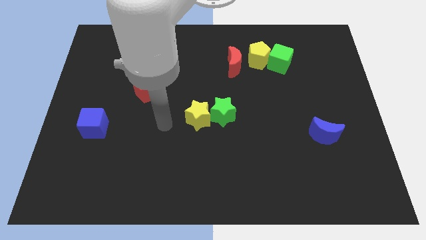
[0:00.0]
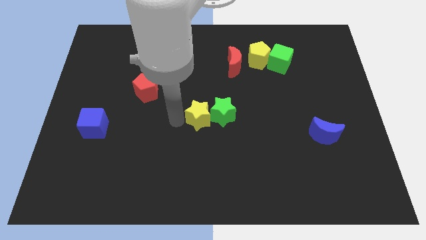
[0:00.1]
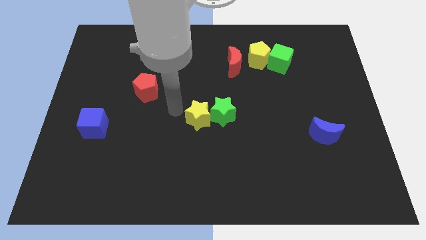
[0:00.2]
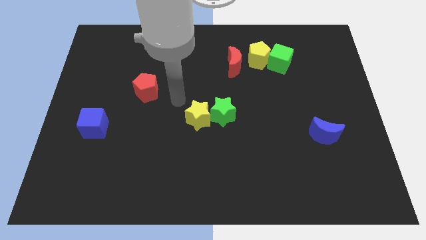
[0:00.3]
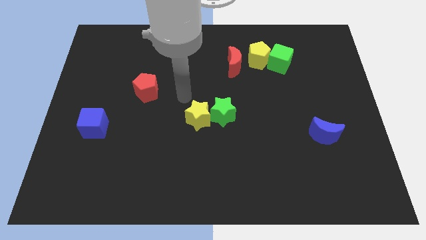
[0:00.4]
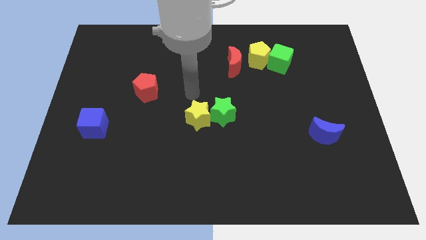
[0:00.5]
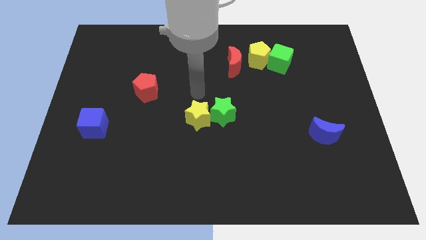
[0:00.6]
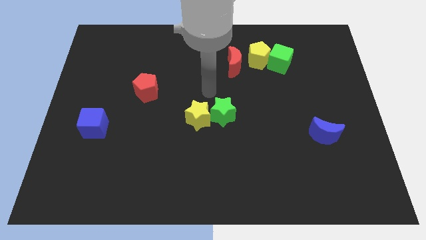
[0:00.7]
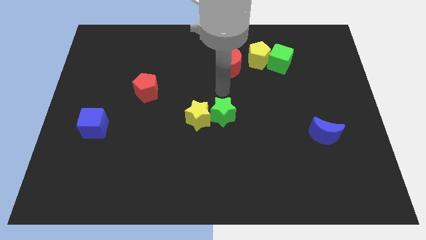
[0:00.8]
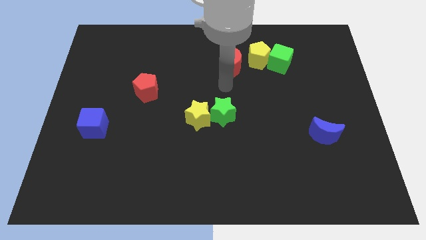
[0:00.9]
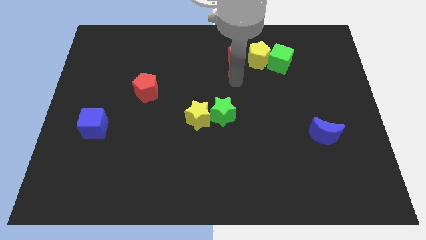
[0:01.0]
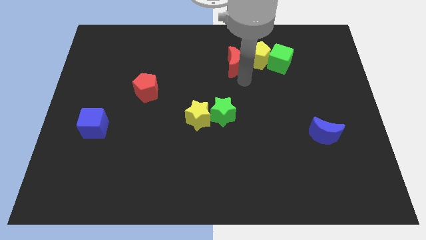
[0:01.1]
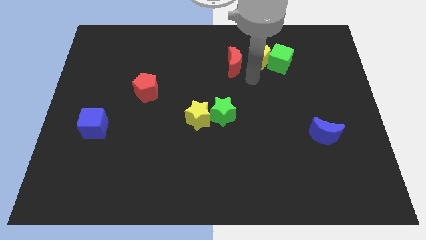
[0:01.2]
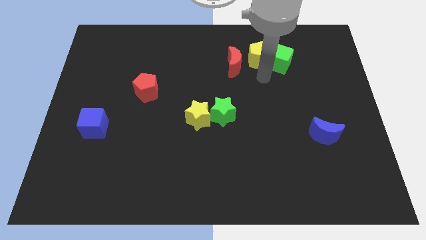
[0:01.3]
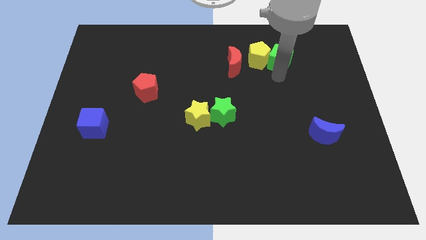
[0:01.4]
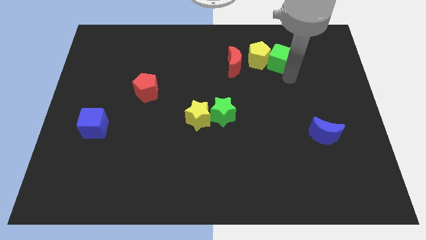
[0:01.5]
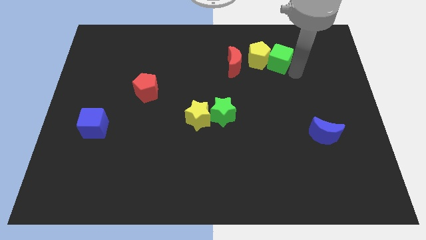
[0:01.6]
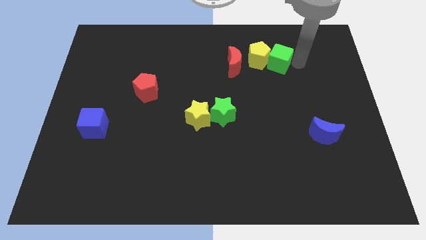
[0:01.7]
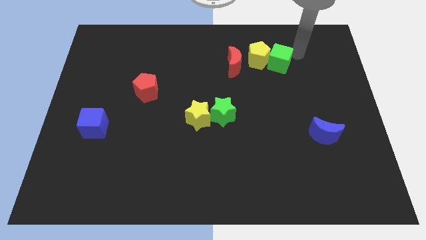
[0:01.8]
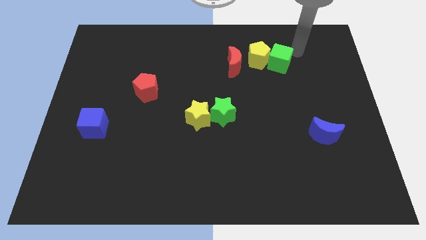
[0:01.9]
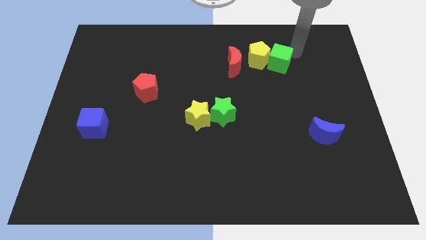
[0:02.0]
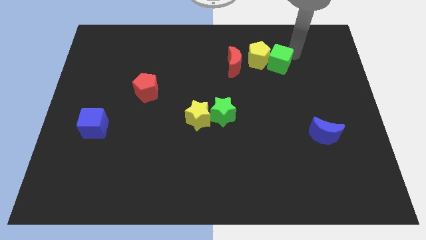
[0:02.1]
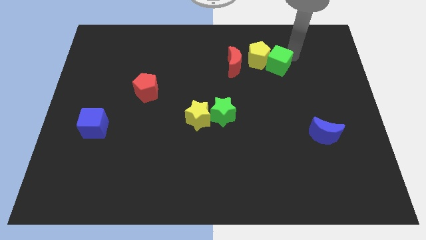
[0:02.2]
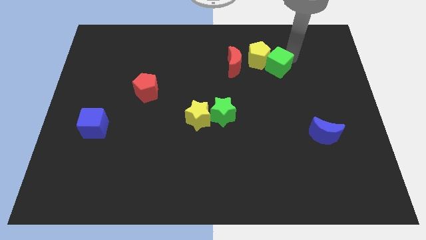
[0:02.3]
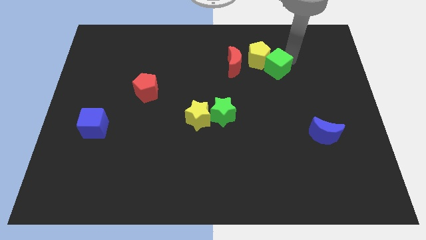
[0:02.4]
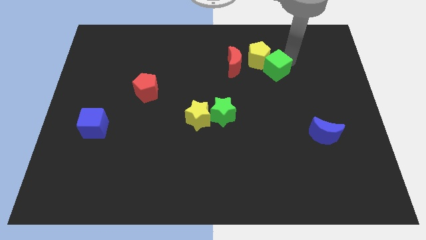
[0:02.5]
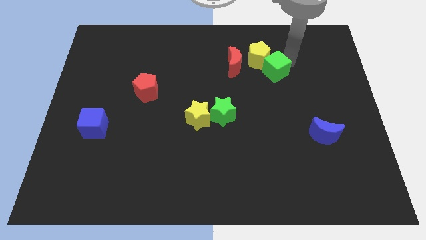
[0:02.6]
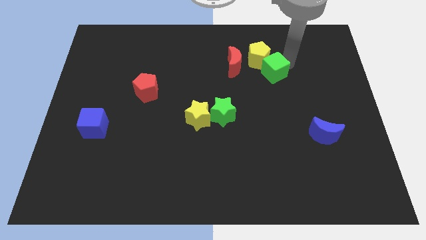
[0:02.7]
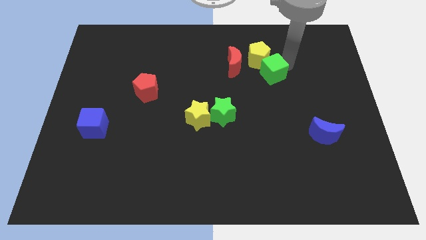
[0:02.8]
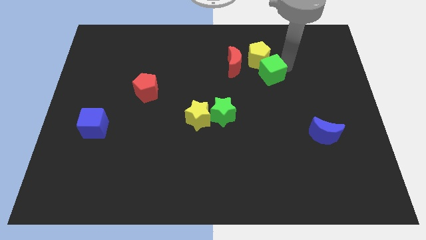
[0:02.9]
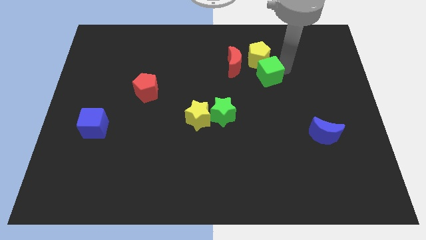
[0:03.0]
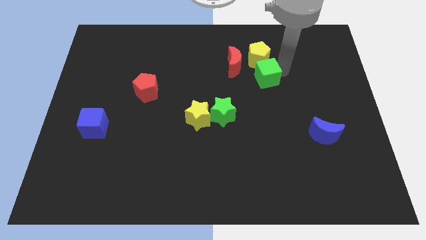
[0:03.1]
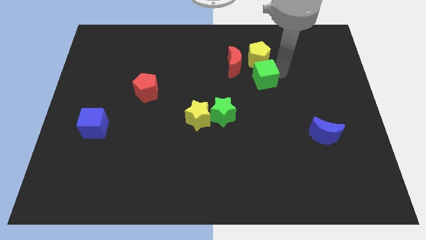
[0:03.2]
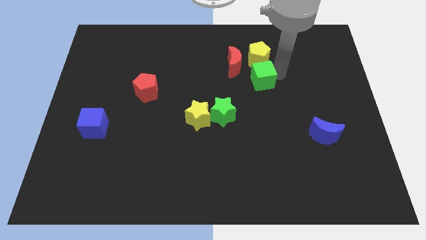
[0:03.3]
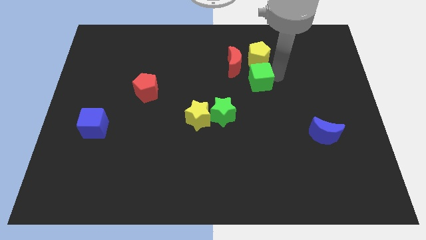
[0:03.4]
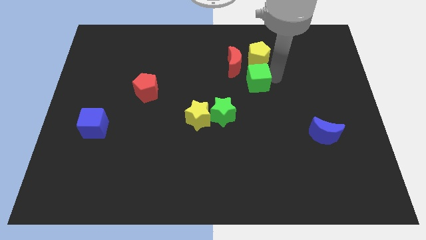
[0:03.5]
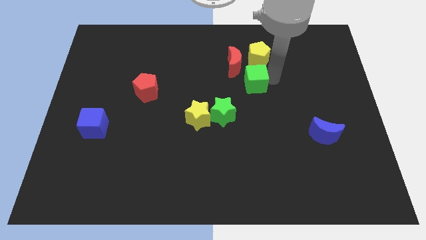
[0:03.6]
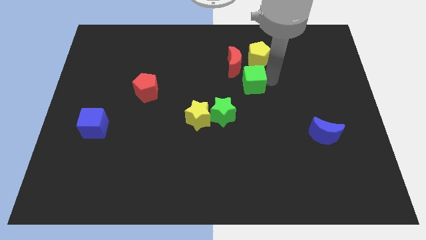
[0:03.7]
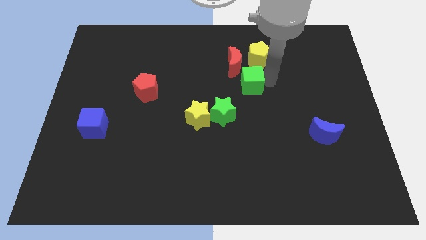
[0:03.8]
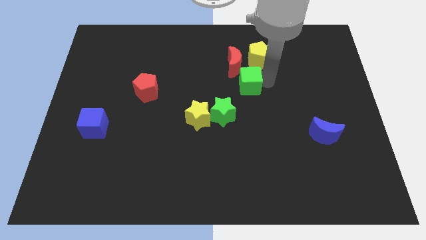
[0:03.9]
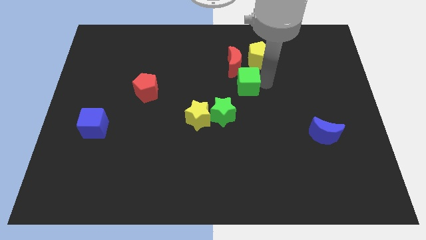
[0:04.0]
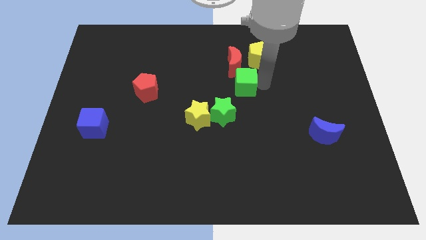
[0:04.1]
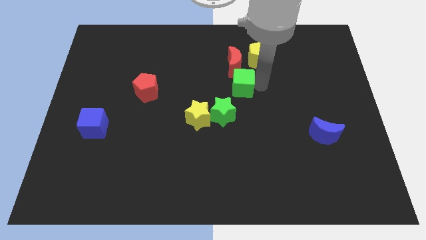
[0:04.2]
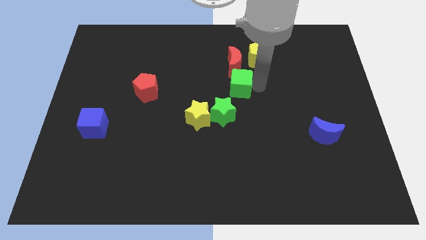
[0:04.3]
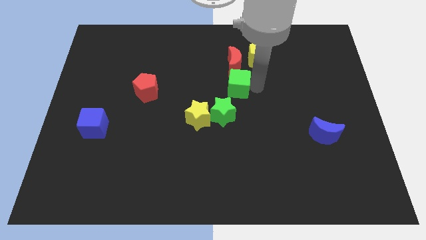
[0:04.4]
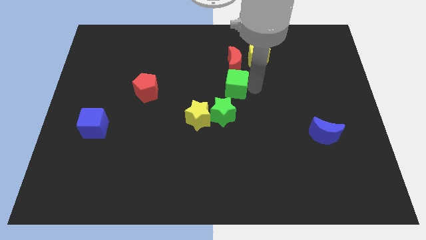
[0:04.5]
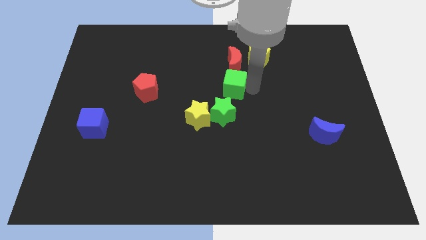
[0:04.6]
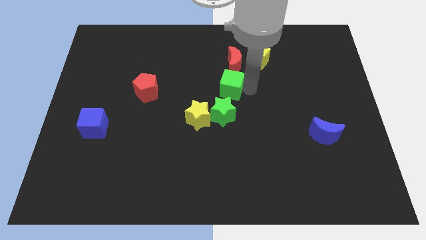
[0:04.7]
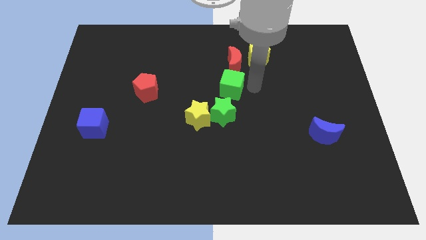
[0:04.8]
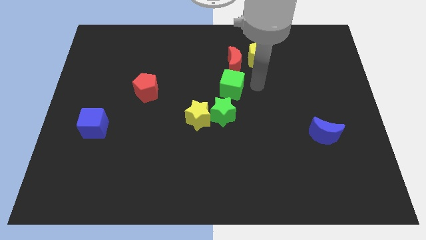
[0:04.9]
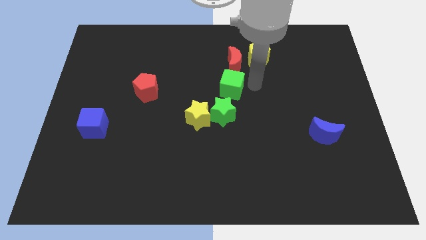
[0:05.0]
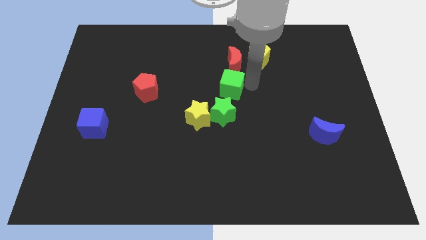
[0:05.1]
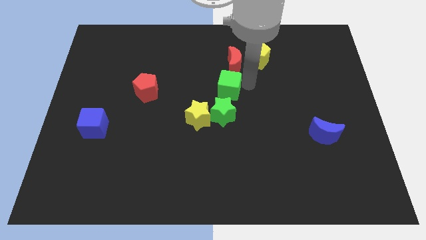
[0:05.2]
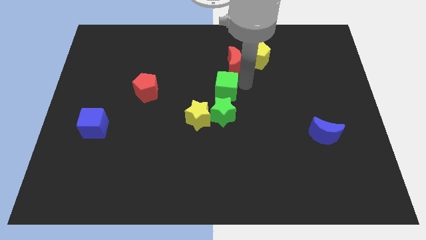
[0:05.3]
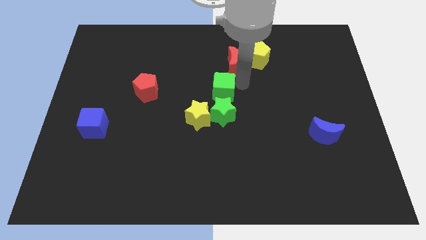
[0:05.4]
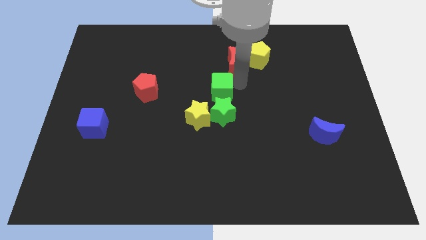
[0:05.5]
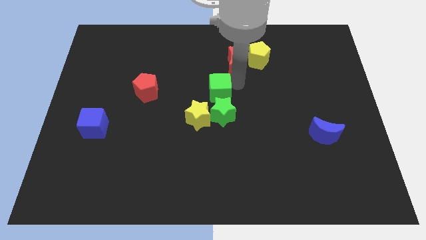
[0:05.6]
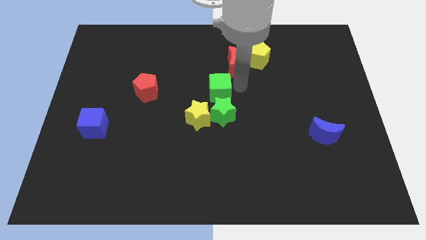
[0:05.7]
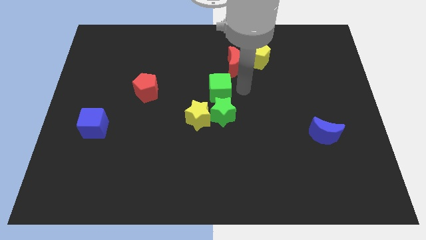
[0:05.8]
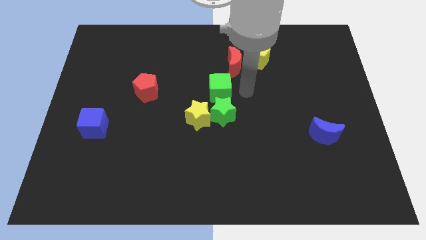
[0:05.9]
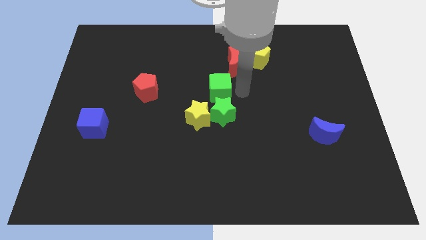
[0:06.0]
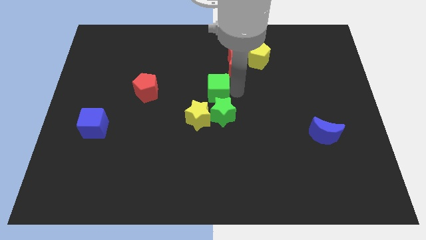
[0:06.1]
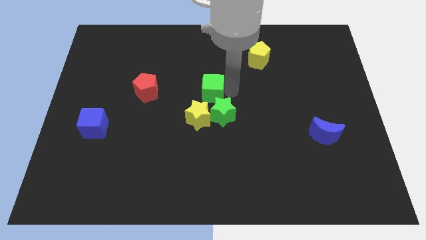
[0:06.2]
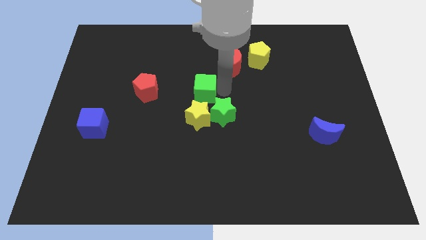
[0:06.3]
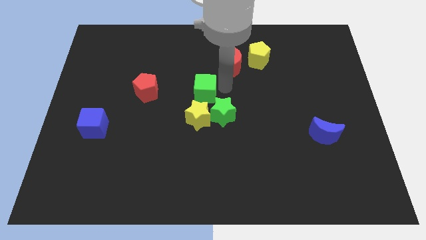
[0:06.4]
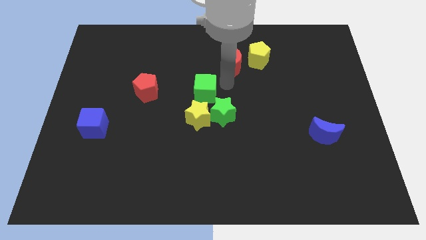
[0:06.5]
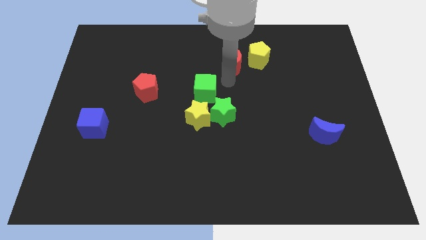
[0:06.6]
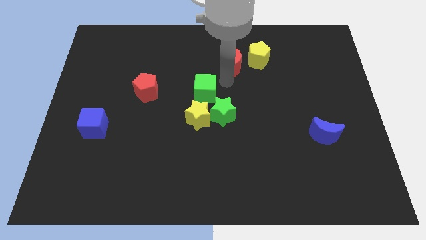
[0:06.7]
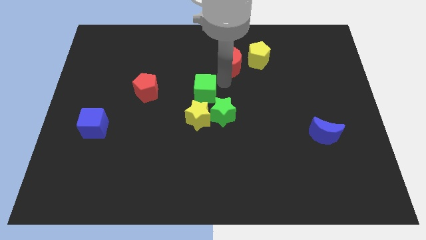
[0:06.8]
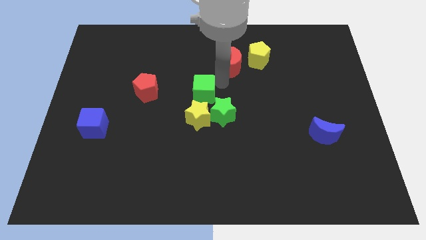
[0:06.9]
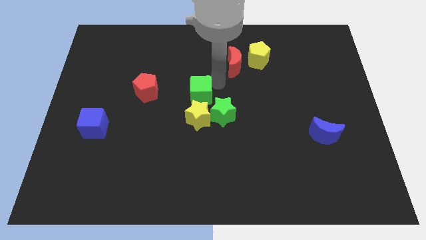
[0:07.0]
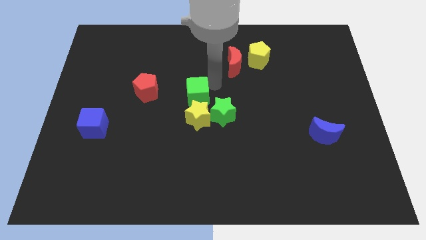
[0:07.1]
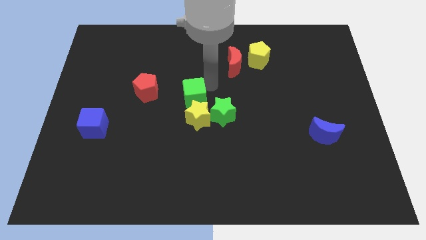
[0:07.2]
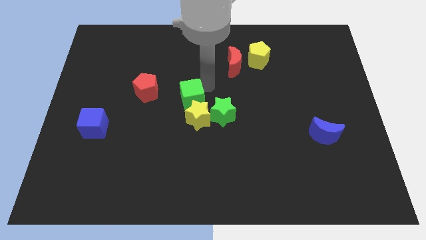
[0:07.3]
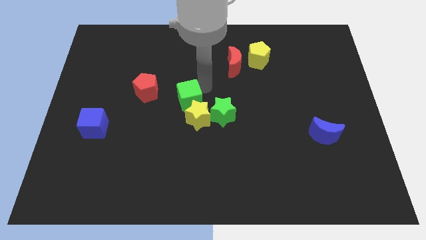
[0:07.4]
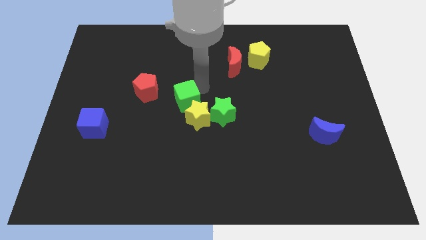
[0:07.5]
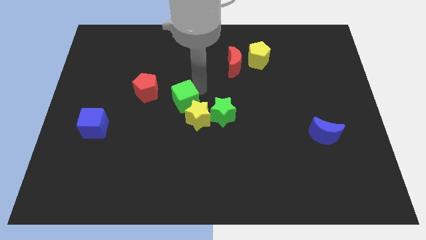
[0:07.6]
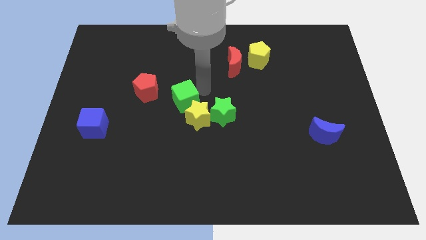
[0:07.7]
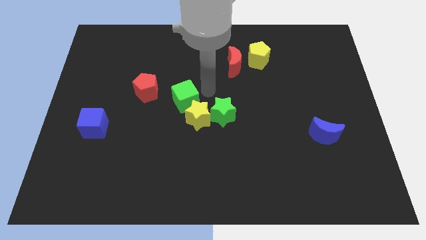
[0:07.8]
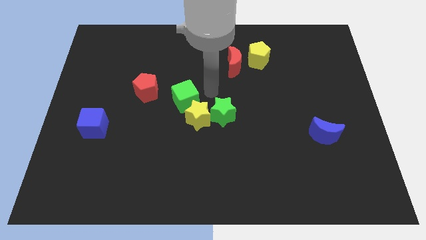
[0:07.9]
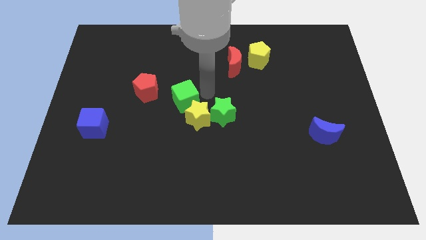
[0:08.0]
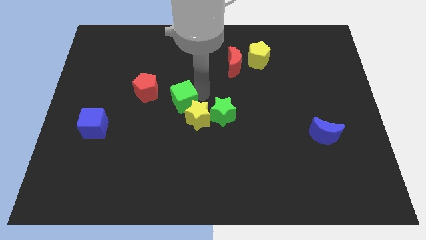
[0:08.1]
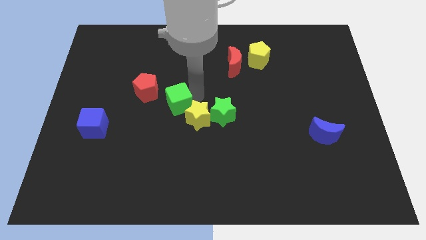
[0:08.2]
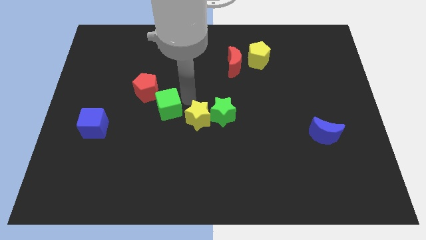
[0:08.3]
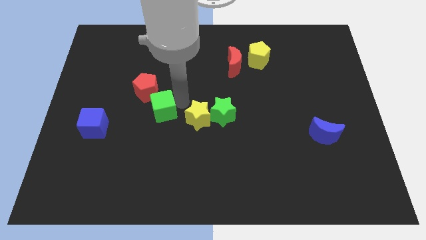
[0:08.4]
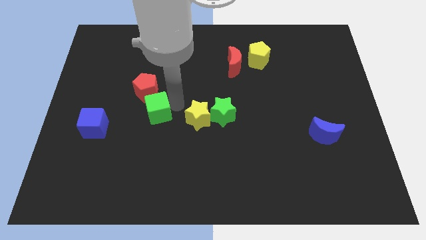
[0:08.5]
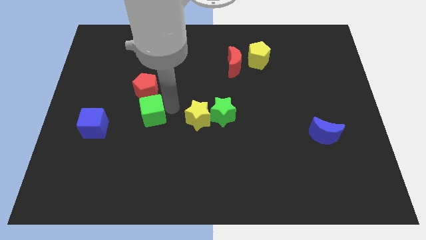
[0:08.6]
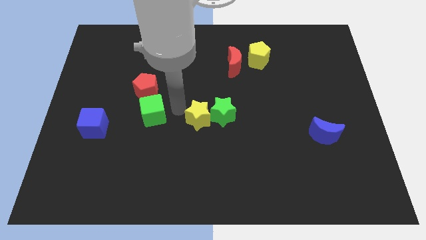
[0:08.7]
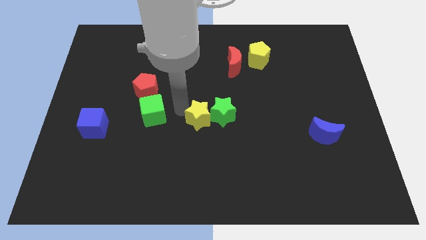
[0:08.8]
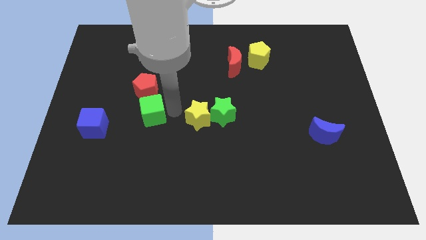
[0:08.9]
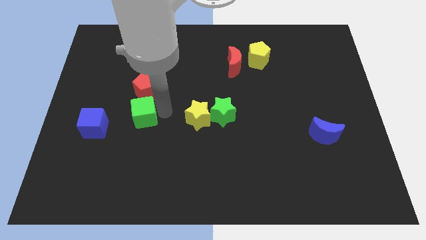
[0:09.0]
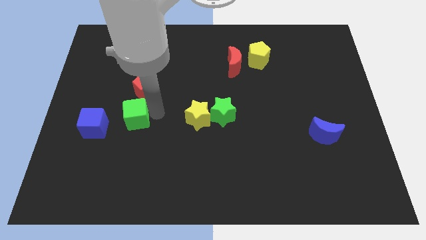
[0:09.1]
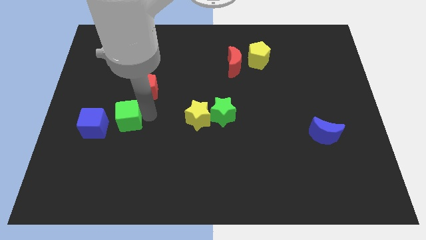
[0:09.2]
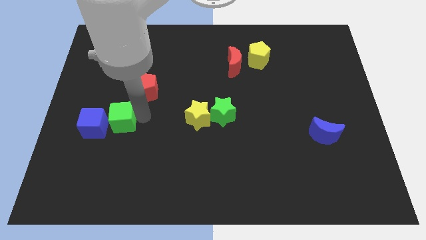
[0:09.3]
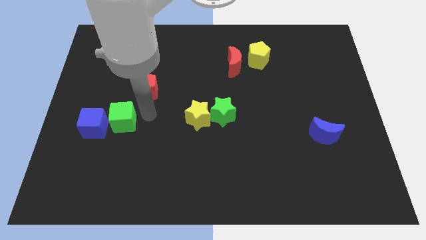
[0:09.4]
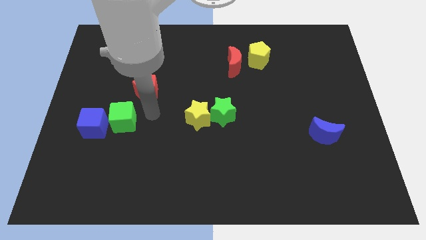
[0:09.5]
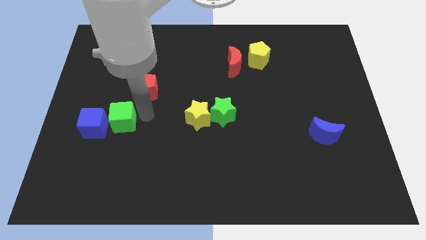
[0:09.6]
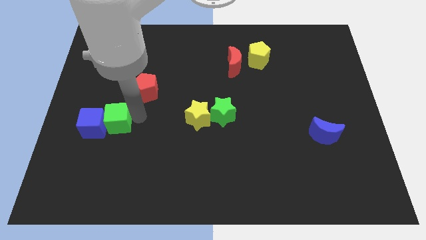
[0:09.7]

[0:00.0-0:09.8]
slide the green cube close to the blue cube
